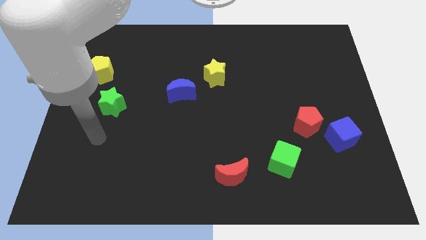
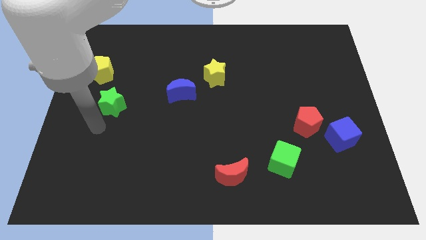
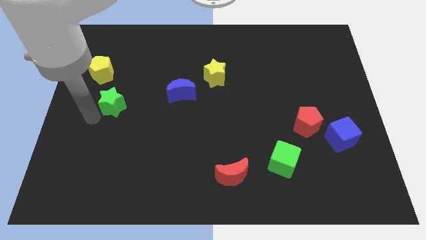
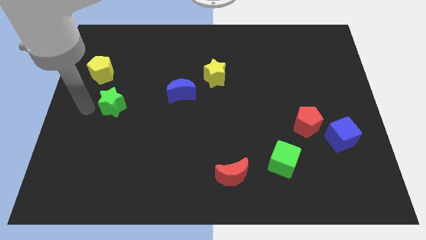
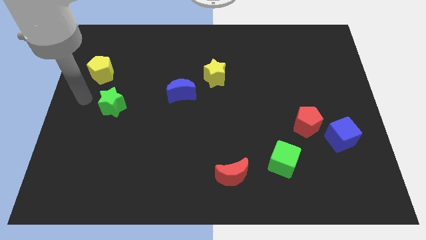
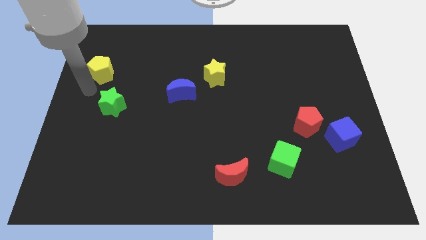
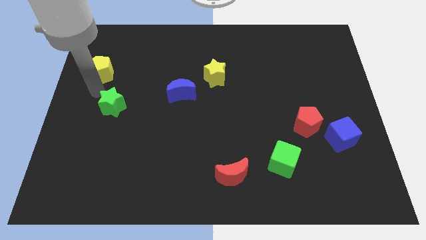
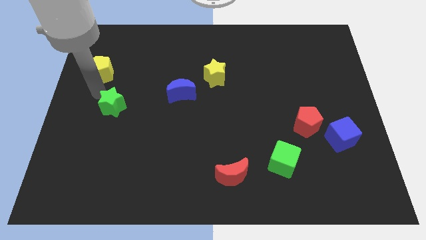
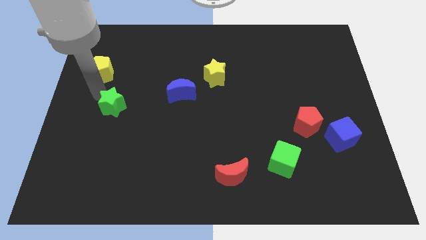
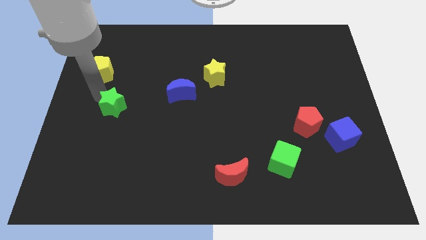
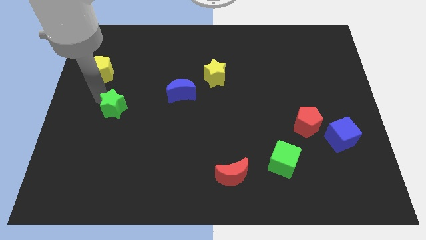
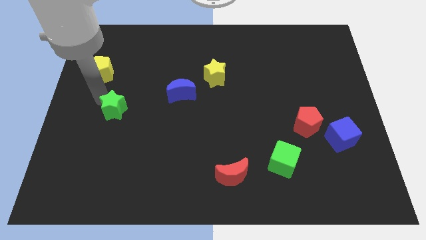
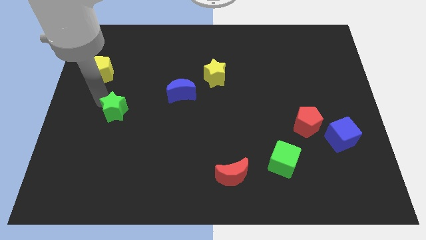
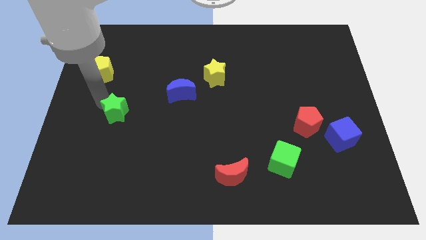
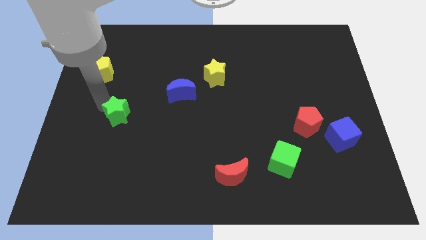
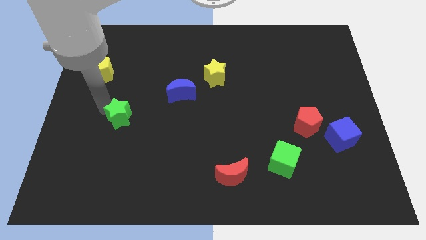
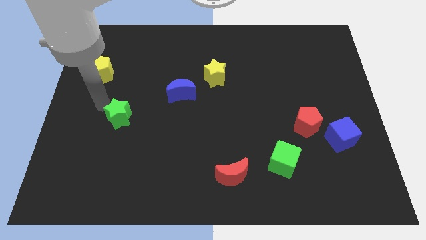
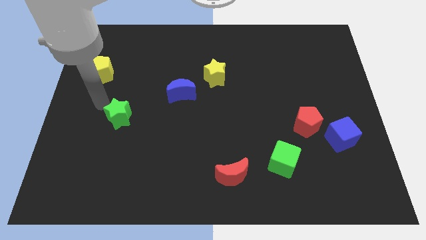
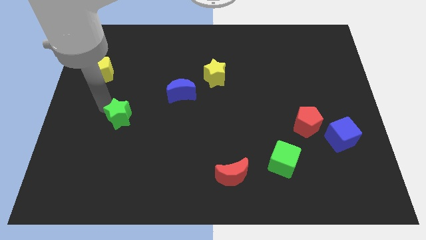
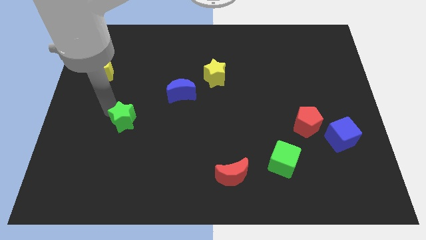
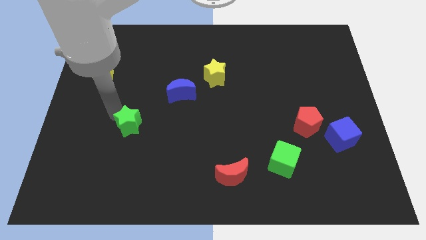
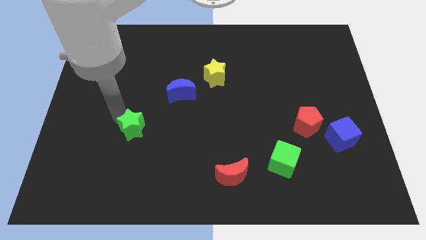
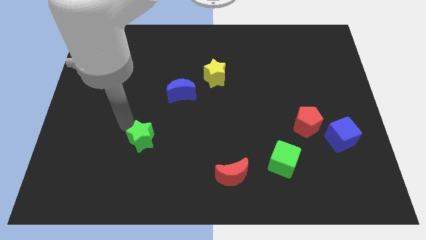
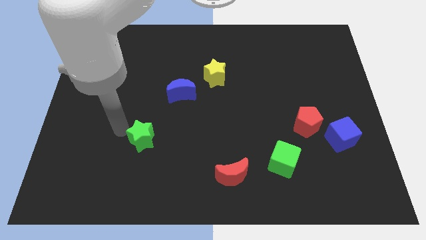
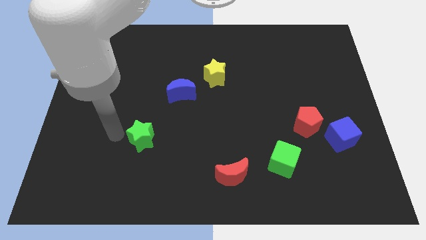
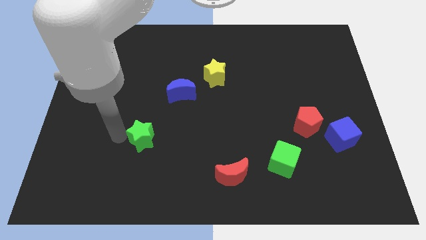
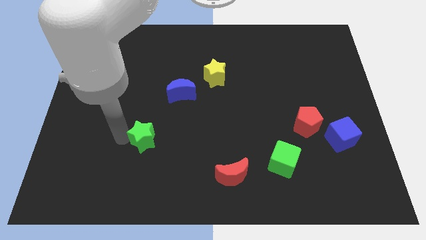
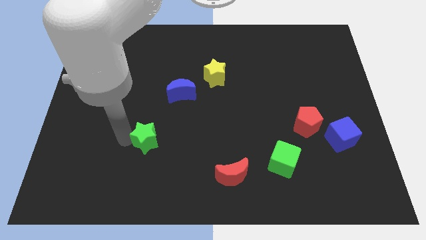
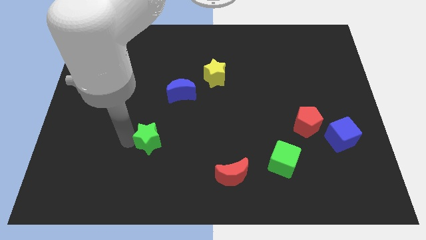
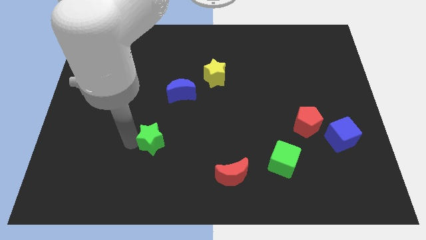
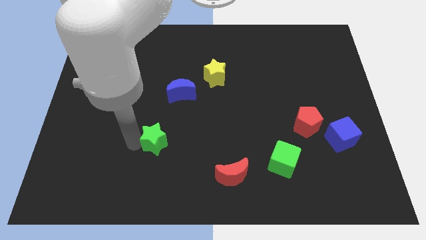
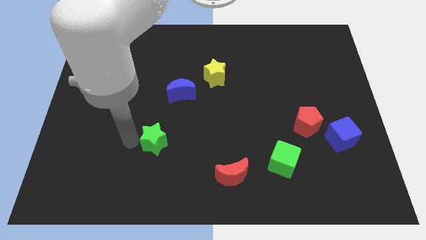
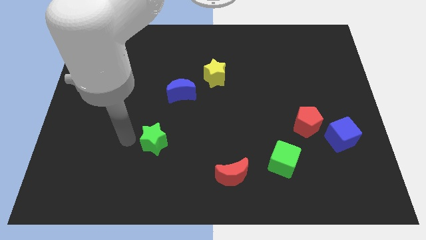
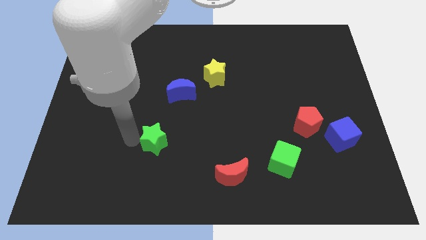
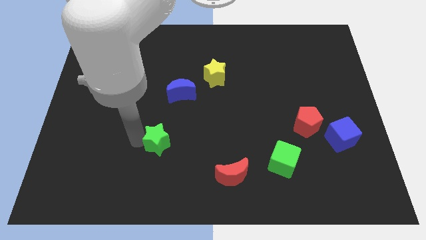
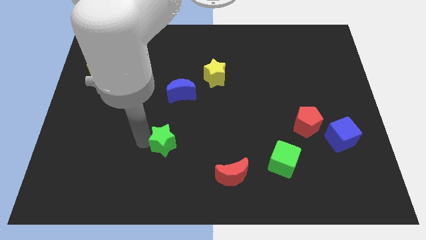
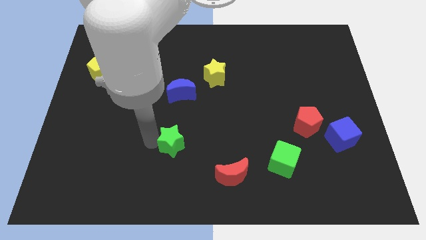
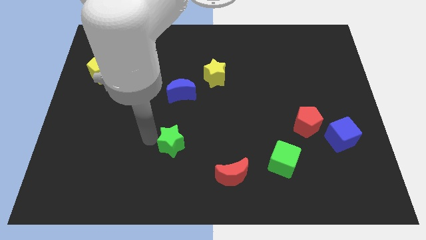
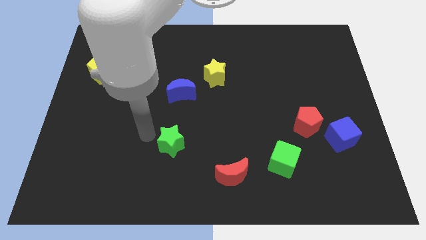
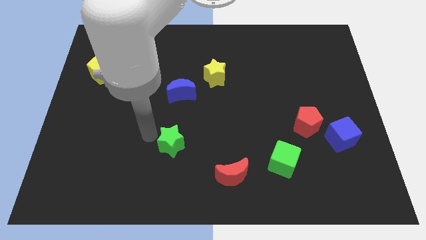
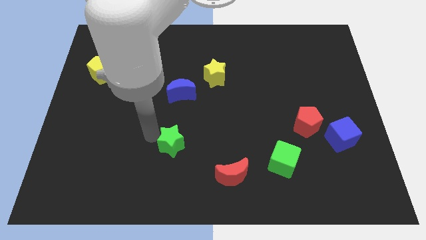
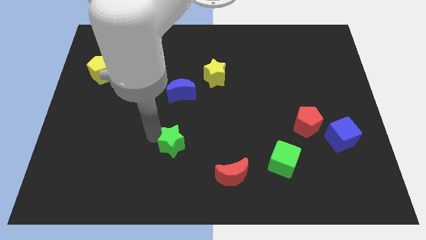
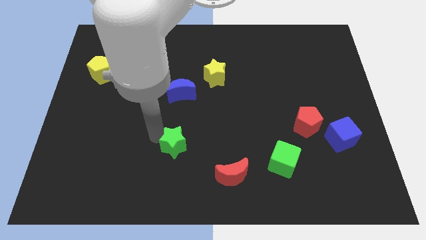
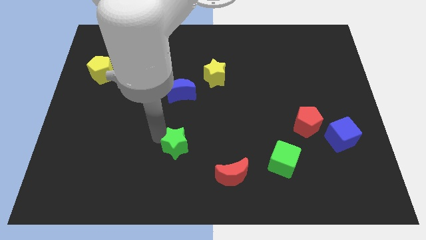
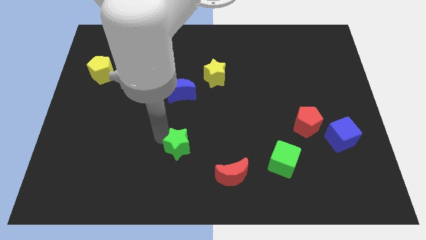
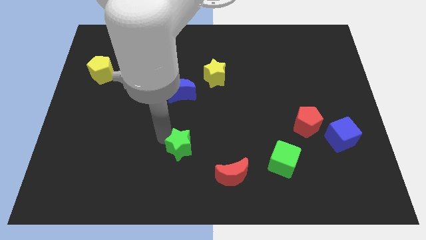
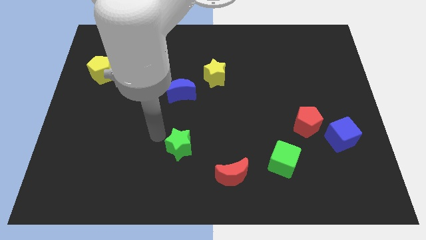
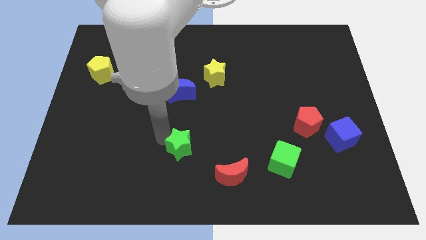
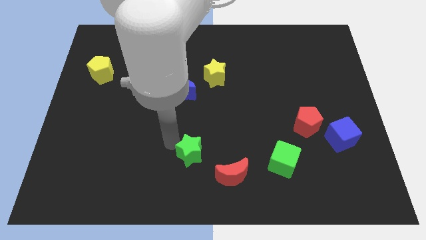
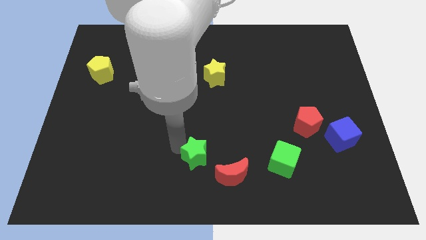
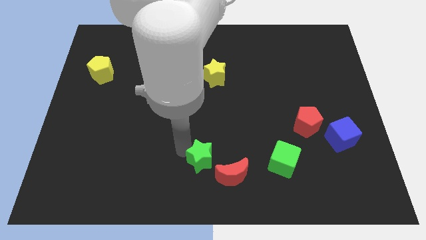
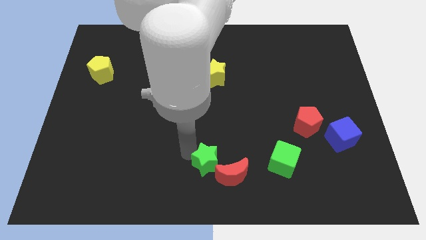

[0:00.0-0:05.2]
slide the green star next to the red moon

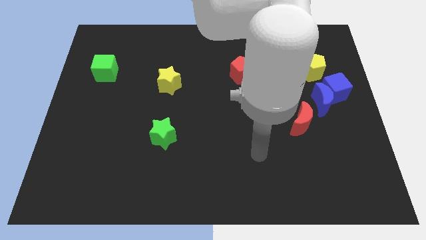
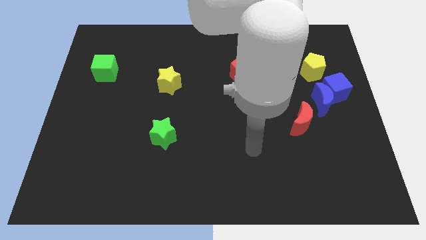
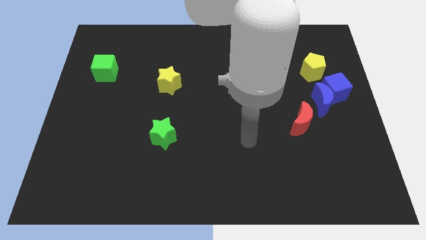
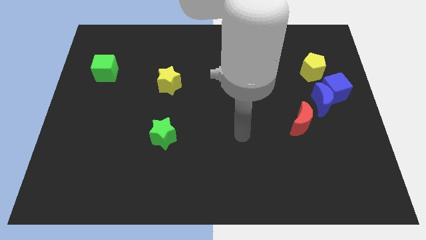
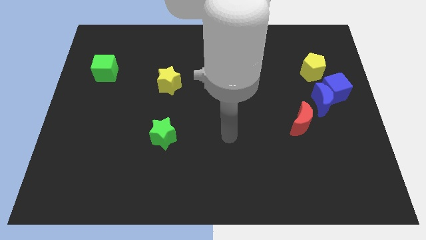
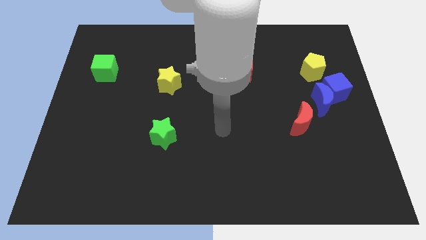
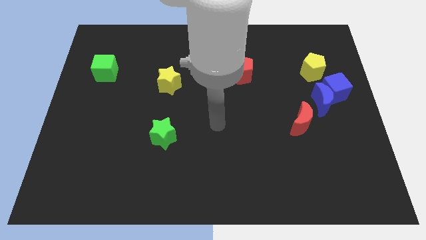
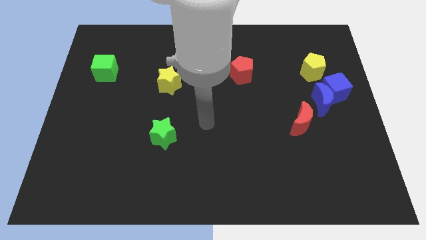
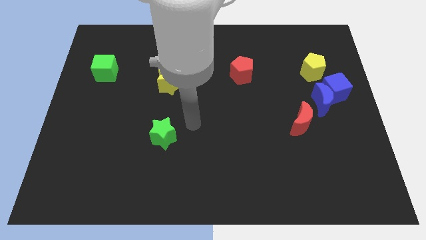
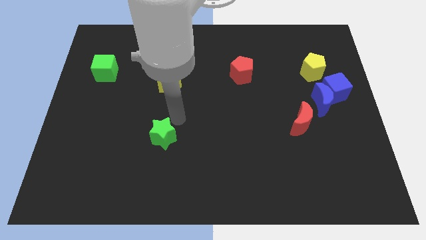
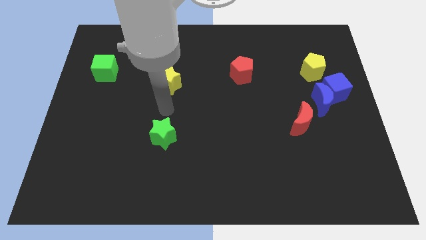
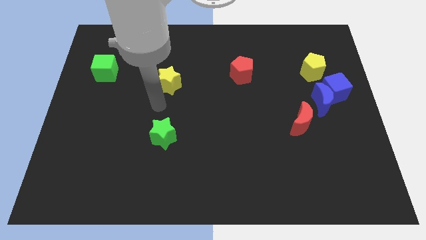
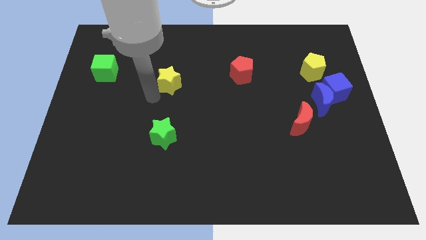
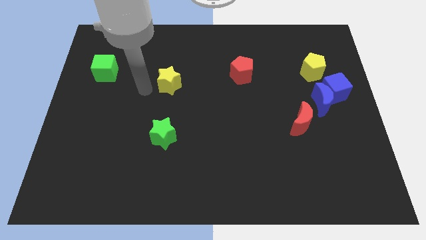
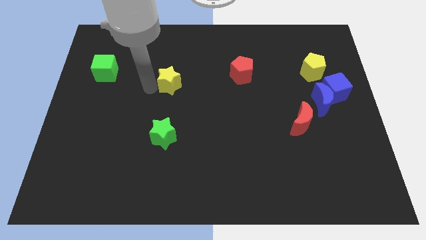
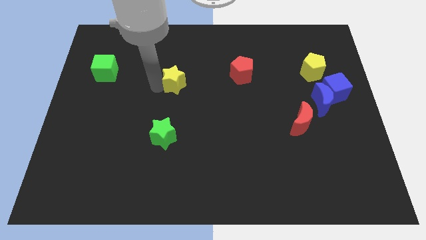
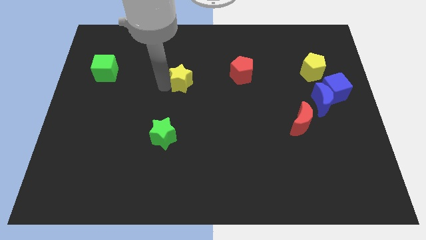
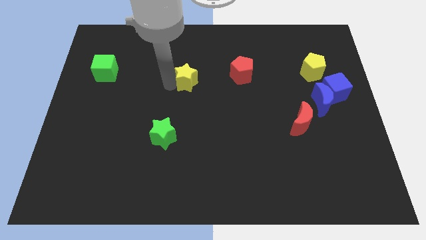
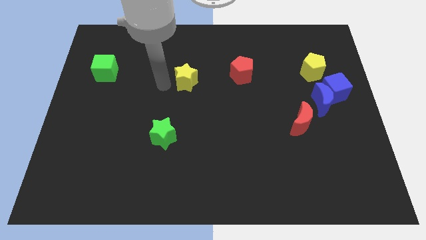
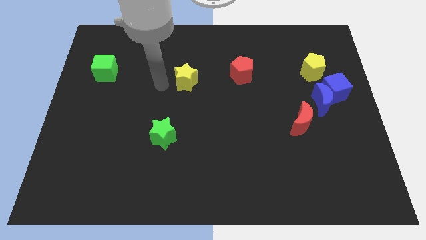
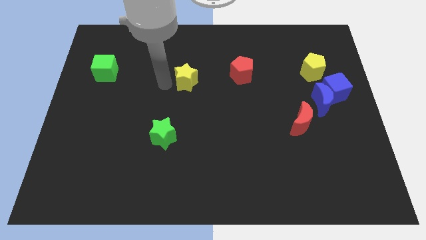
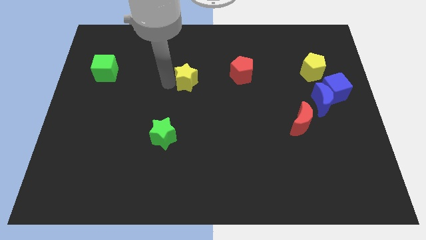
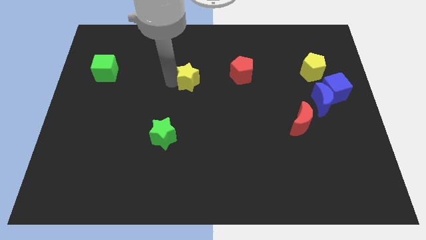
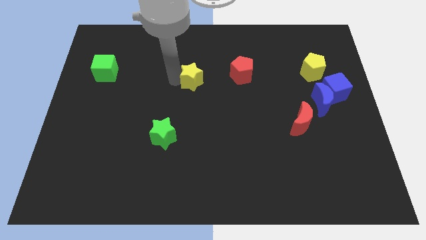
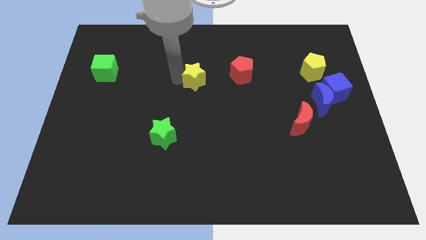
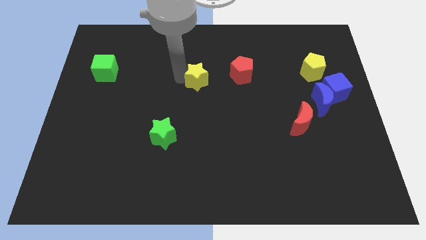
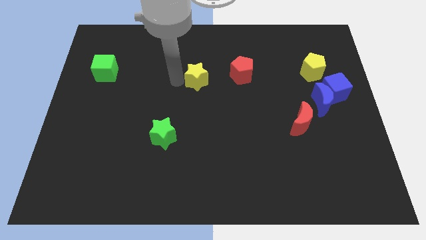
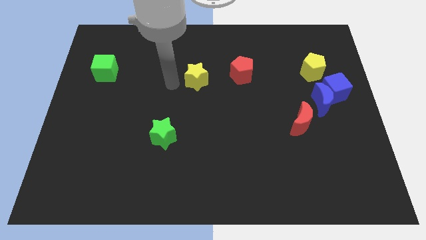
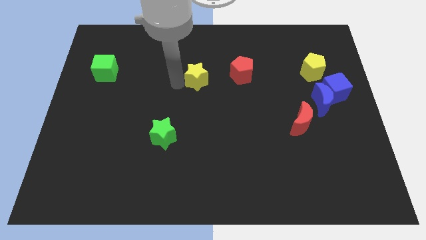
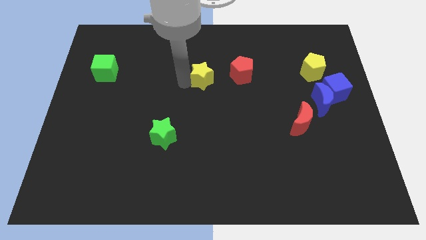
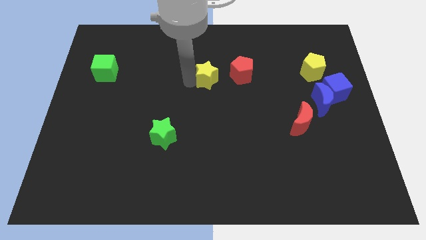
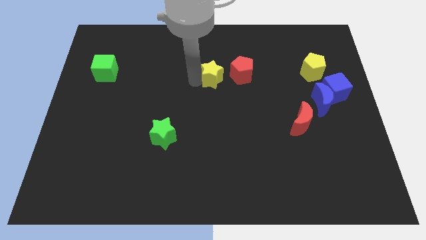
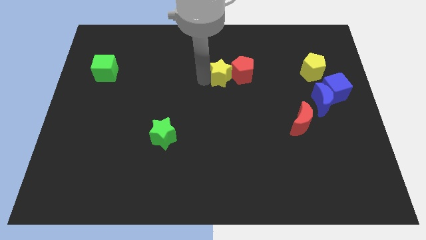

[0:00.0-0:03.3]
put the yellow star close to the red pentagon
